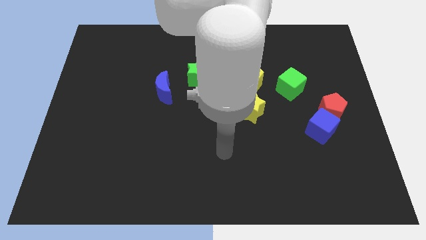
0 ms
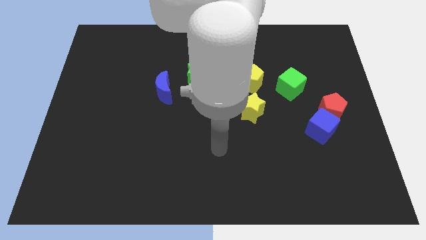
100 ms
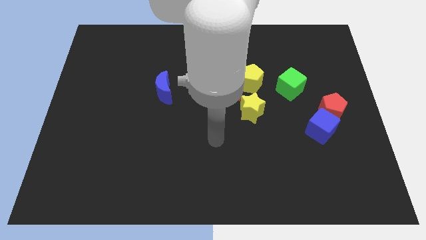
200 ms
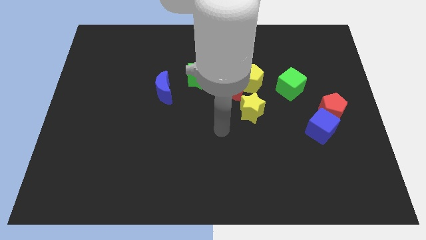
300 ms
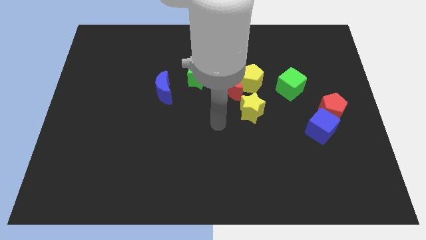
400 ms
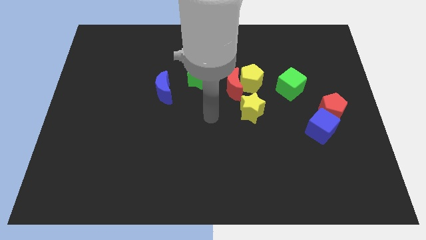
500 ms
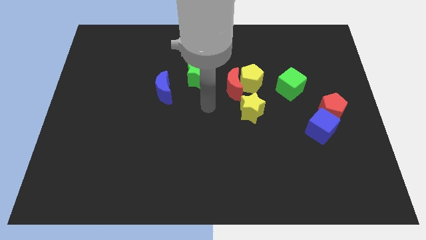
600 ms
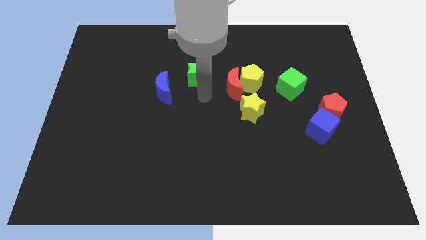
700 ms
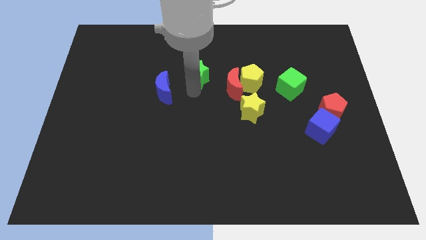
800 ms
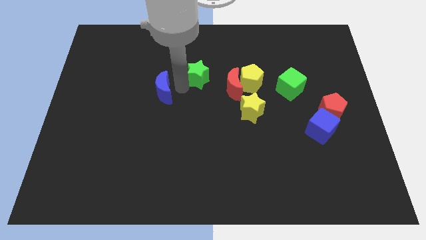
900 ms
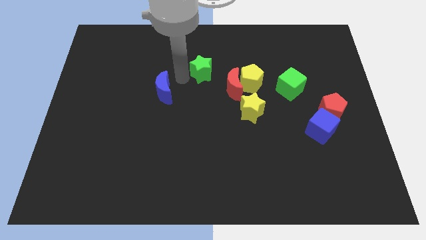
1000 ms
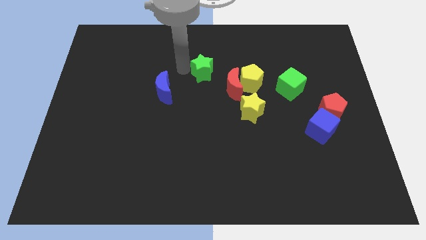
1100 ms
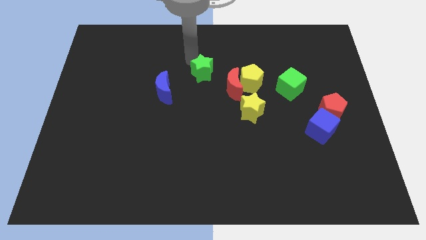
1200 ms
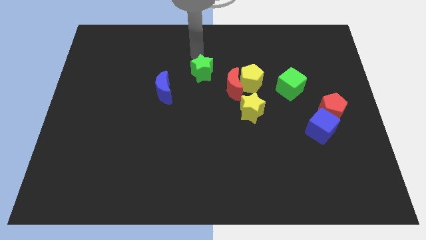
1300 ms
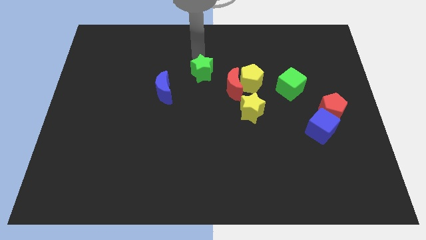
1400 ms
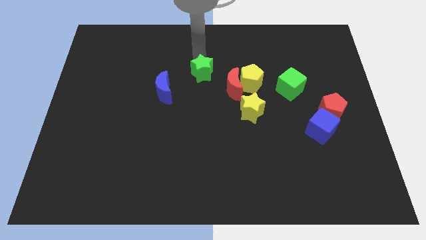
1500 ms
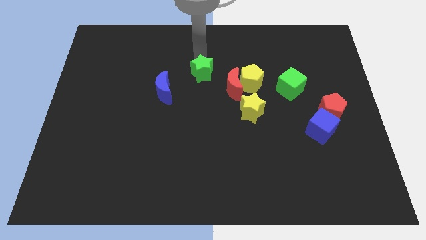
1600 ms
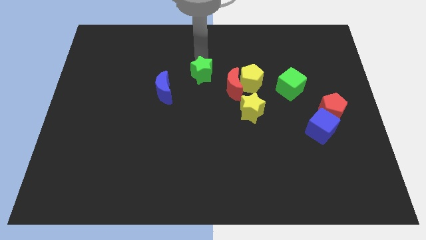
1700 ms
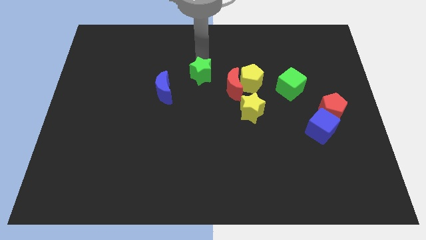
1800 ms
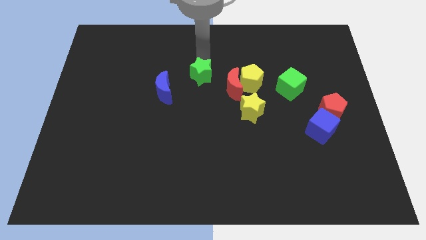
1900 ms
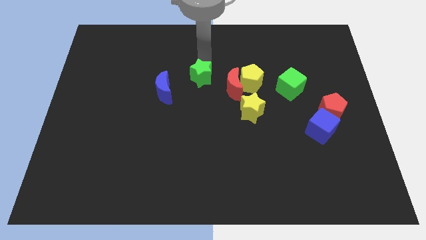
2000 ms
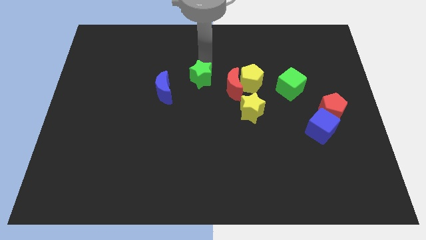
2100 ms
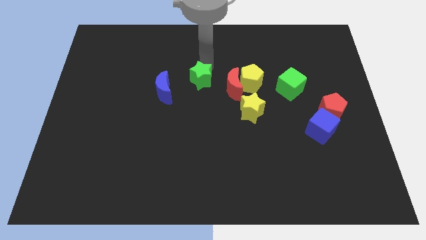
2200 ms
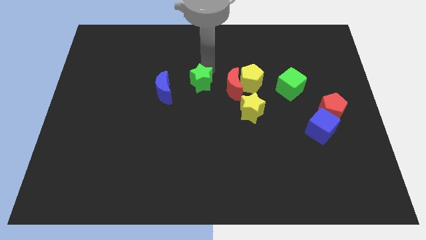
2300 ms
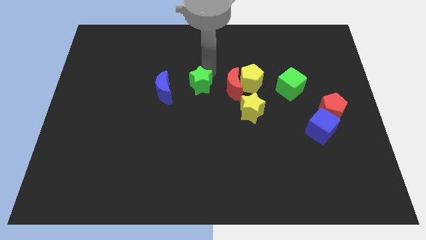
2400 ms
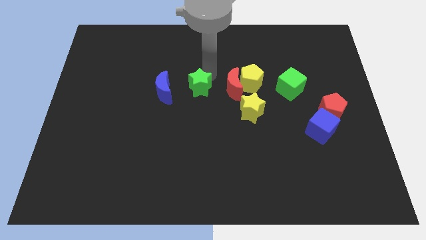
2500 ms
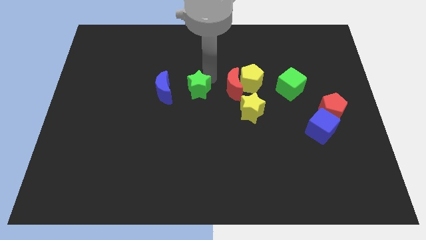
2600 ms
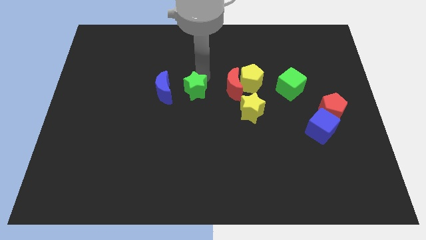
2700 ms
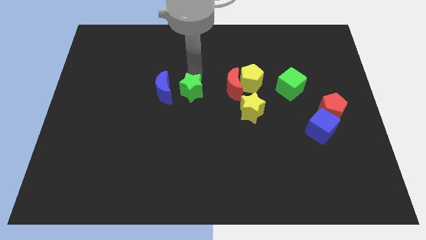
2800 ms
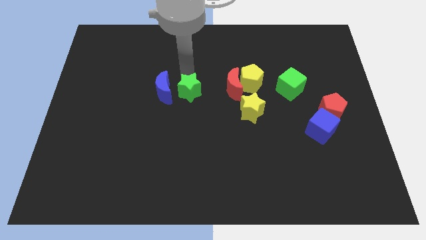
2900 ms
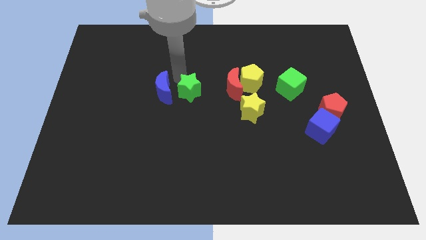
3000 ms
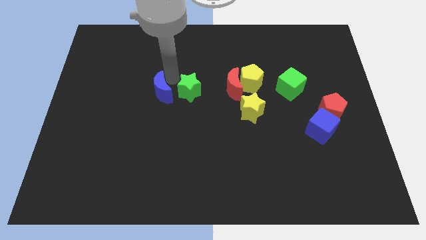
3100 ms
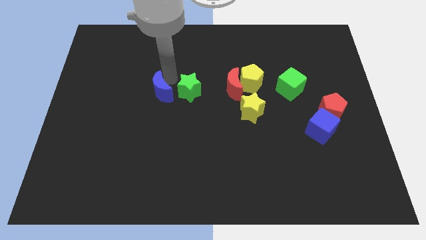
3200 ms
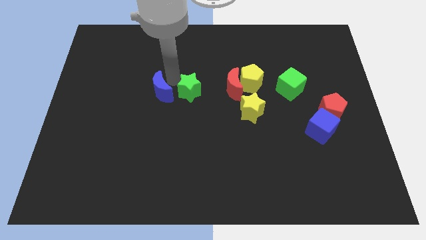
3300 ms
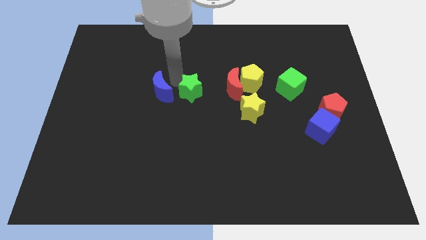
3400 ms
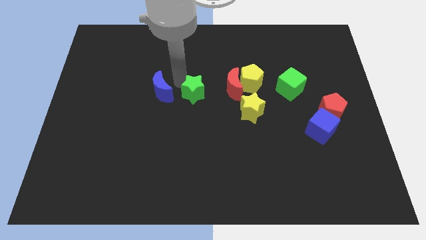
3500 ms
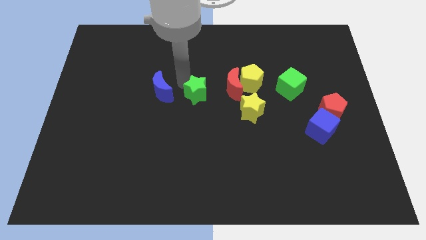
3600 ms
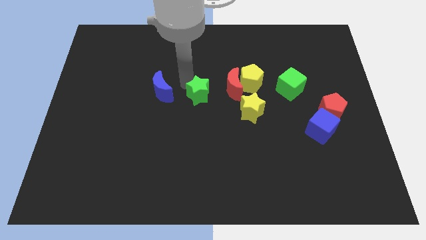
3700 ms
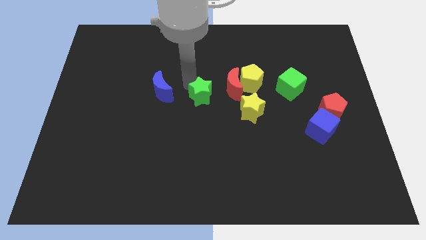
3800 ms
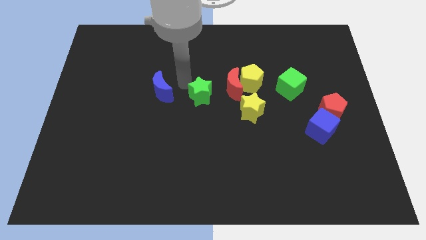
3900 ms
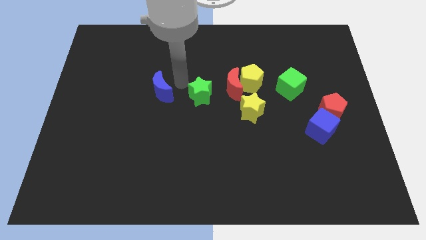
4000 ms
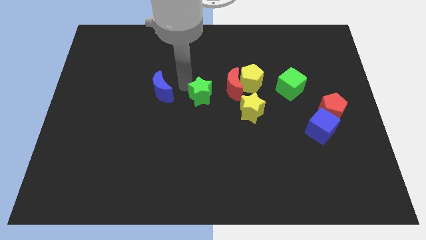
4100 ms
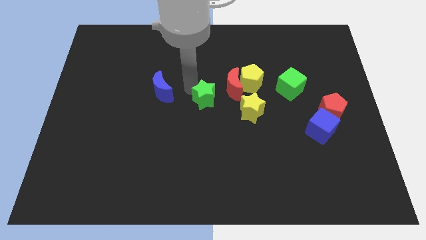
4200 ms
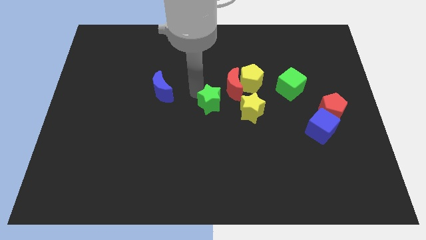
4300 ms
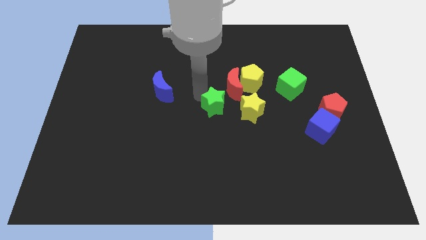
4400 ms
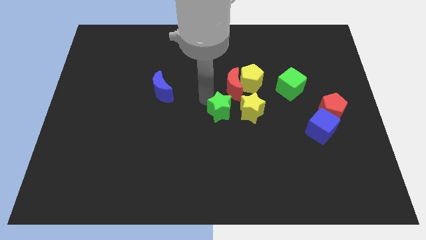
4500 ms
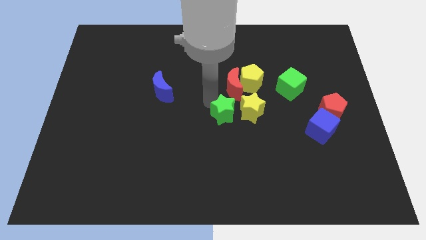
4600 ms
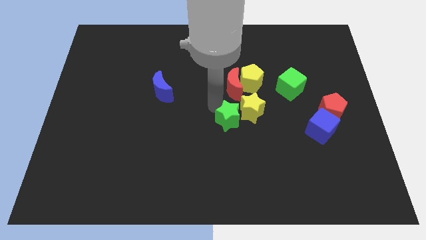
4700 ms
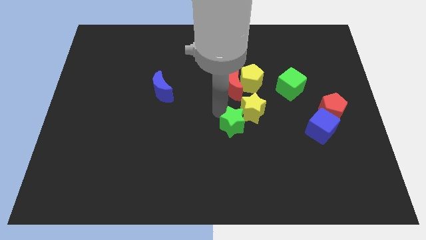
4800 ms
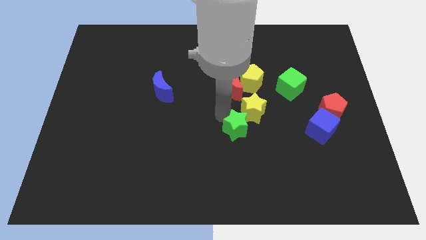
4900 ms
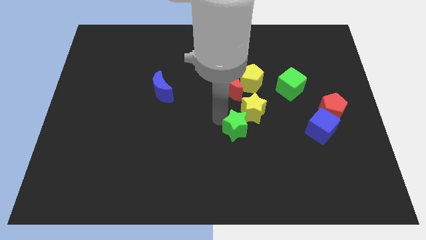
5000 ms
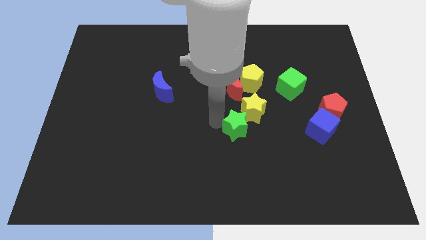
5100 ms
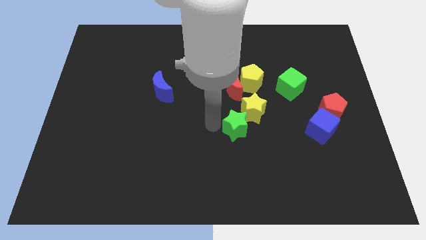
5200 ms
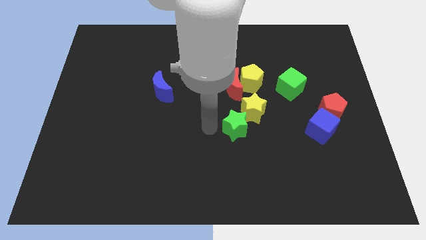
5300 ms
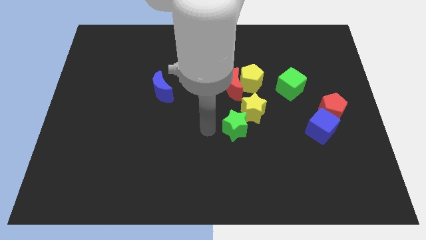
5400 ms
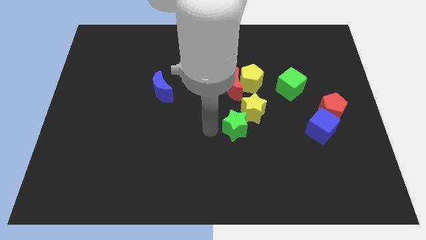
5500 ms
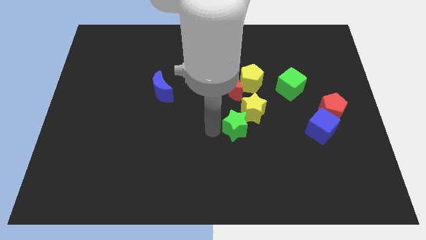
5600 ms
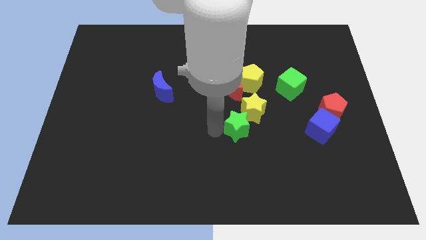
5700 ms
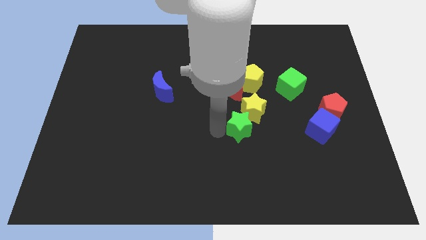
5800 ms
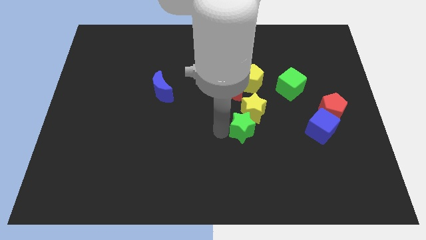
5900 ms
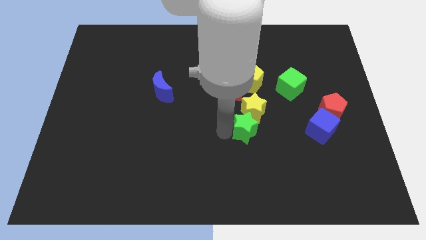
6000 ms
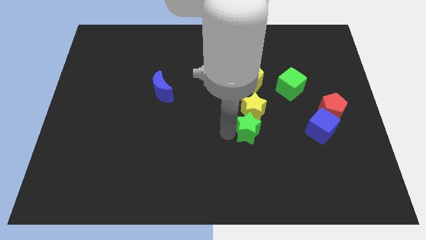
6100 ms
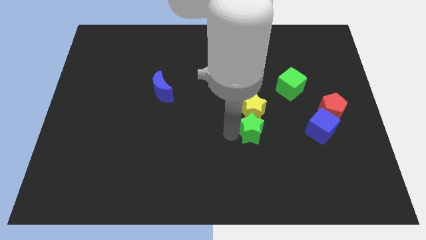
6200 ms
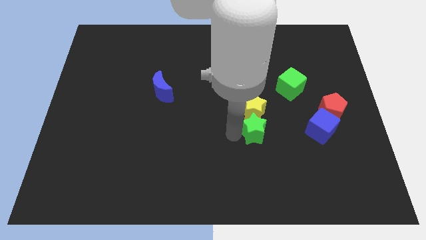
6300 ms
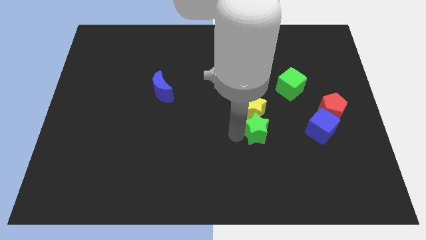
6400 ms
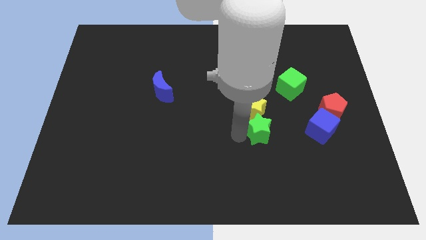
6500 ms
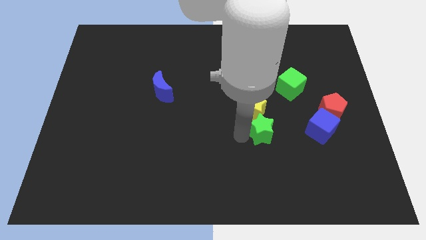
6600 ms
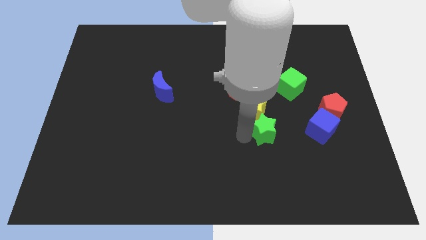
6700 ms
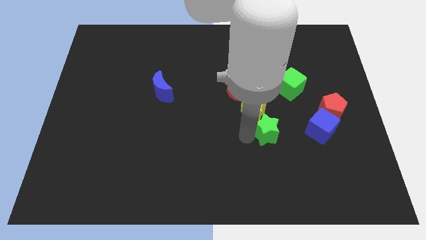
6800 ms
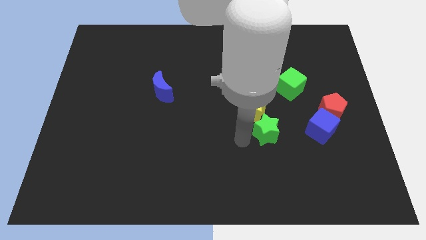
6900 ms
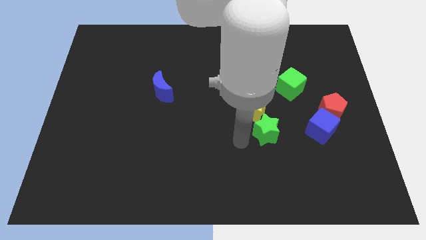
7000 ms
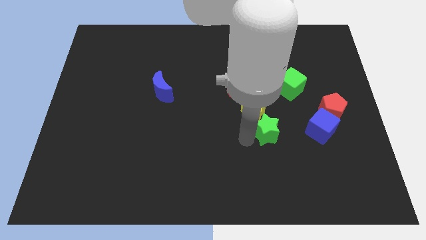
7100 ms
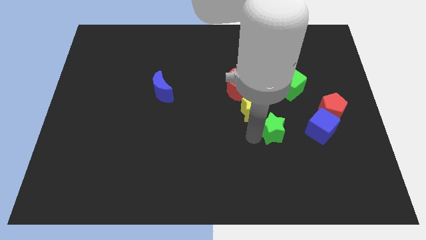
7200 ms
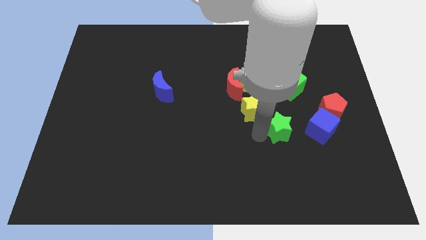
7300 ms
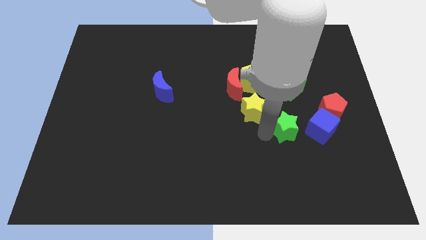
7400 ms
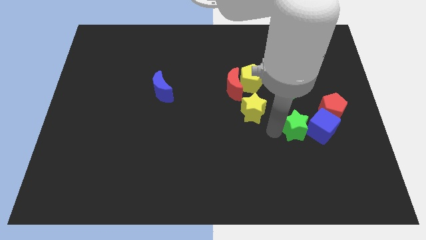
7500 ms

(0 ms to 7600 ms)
put the green star towards the blue cube

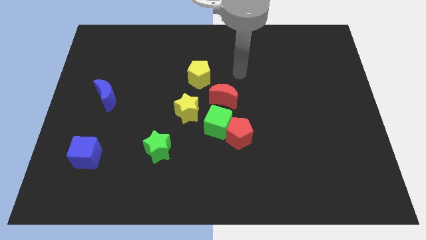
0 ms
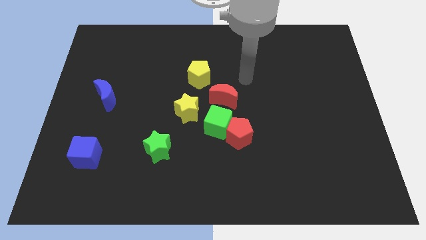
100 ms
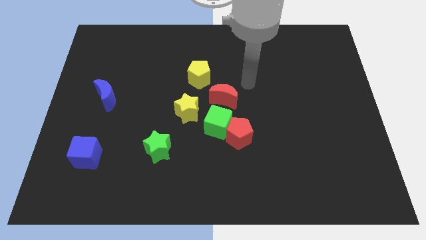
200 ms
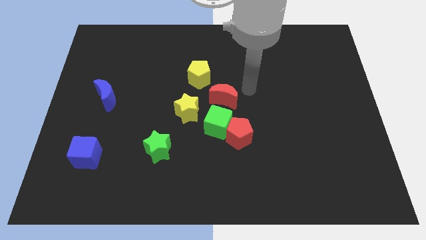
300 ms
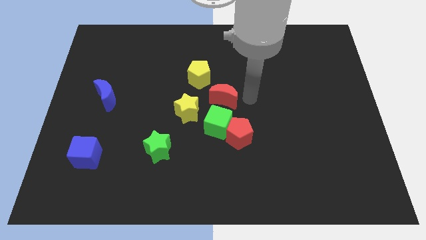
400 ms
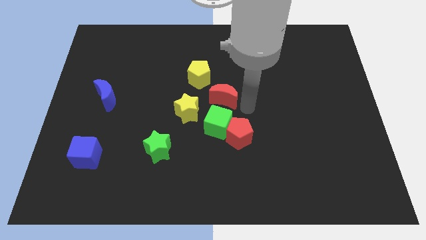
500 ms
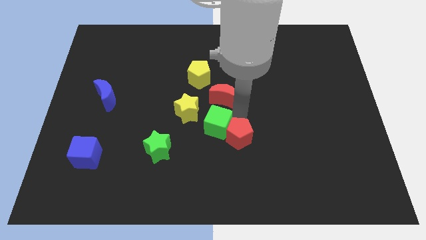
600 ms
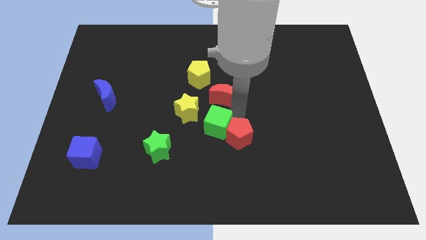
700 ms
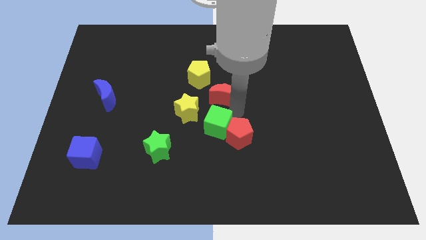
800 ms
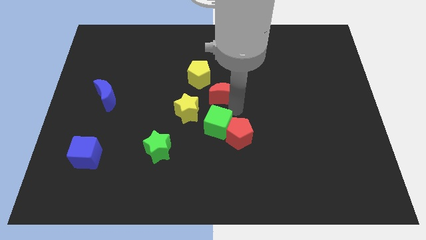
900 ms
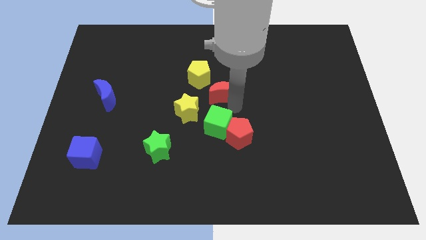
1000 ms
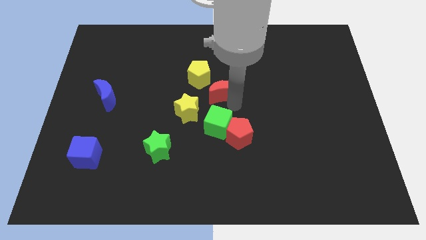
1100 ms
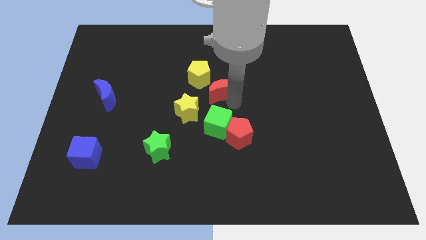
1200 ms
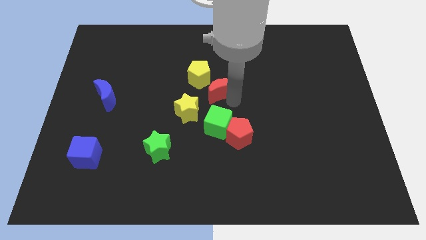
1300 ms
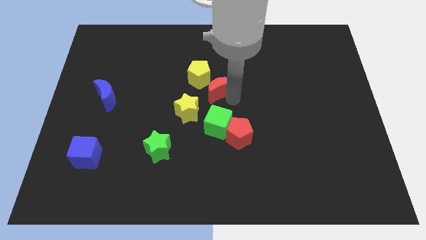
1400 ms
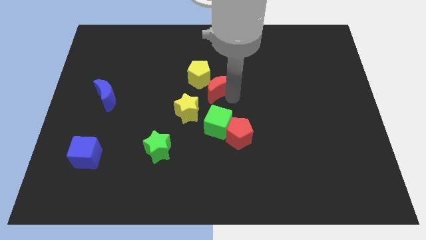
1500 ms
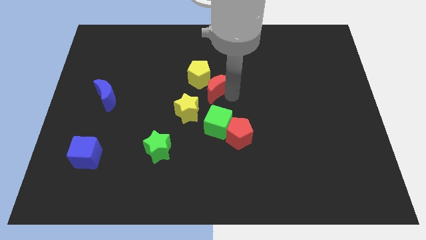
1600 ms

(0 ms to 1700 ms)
slide the red moon next to the yellow pentagon
